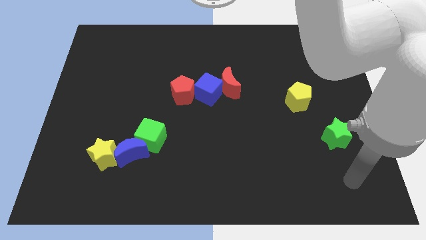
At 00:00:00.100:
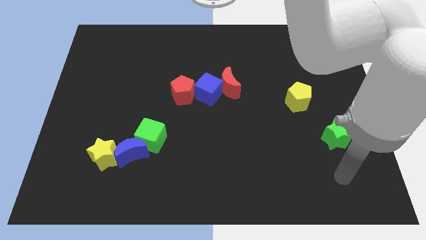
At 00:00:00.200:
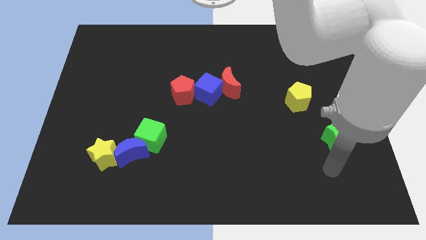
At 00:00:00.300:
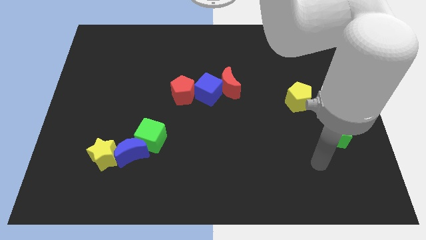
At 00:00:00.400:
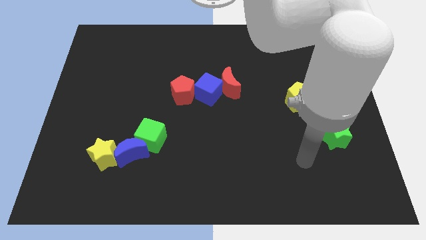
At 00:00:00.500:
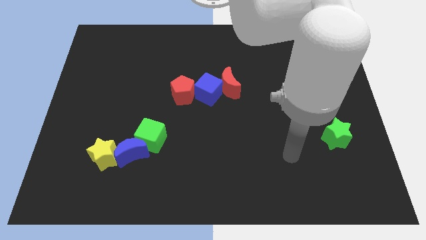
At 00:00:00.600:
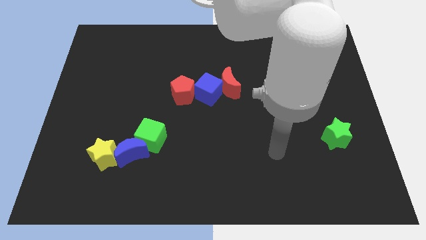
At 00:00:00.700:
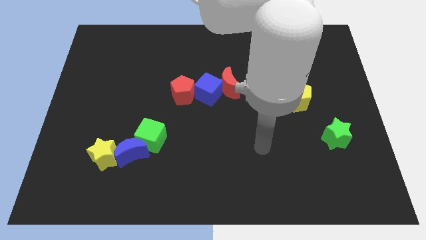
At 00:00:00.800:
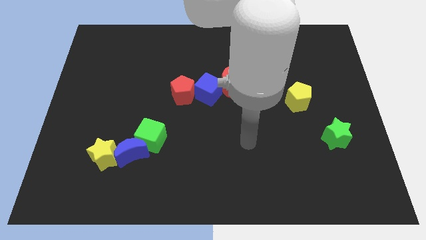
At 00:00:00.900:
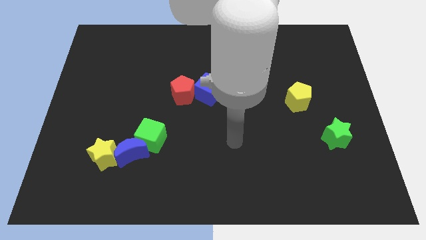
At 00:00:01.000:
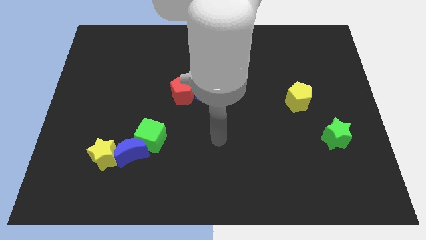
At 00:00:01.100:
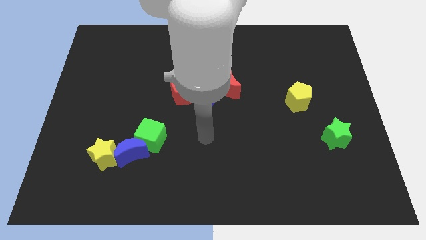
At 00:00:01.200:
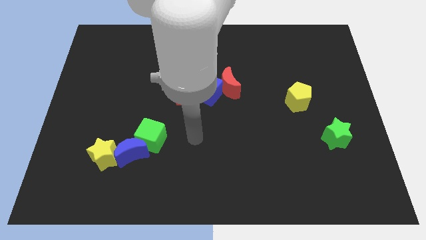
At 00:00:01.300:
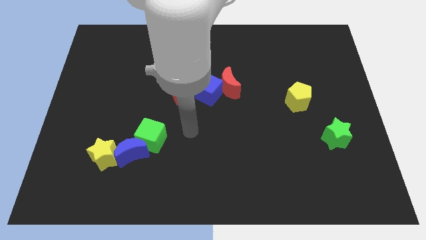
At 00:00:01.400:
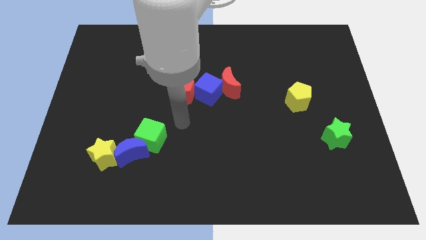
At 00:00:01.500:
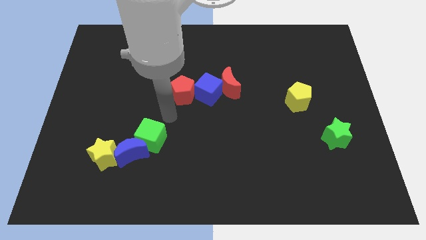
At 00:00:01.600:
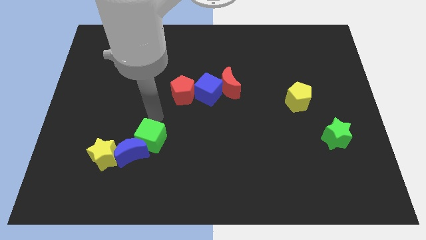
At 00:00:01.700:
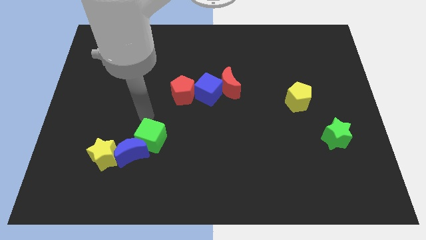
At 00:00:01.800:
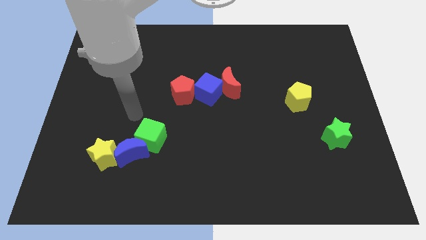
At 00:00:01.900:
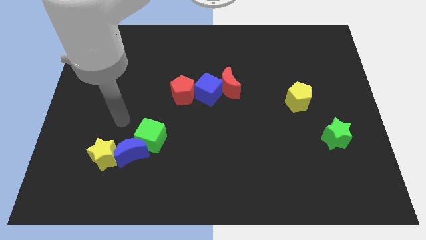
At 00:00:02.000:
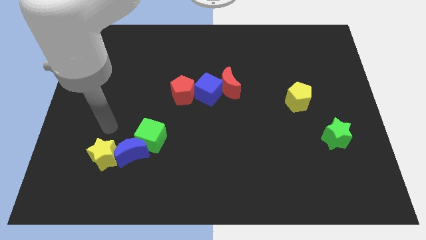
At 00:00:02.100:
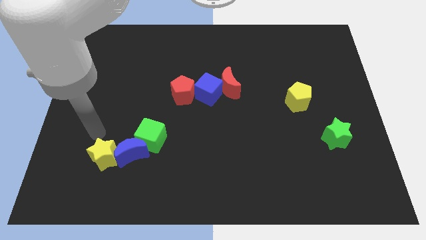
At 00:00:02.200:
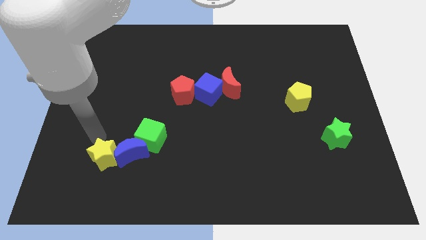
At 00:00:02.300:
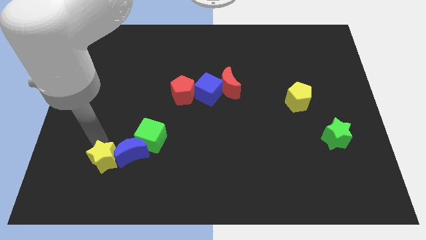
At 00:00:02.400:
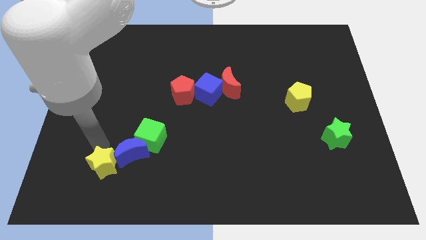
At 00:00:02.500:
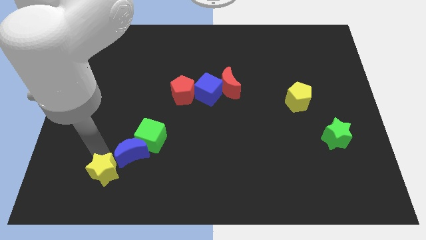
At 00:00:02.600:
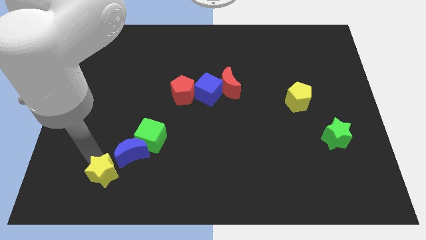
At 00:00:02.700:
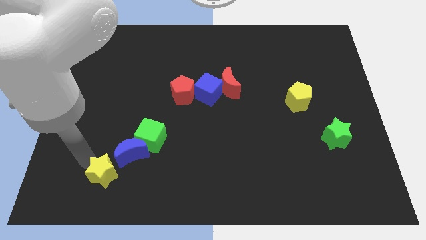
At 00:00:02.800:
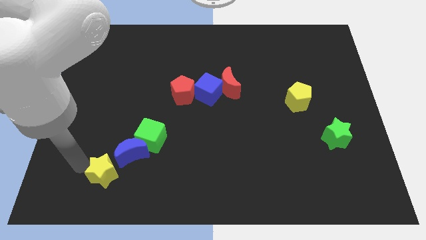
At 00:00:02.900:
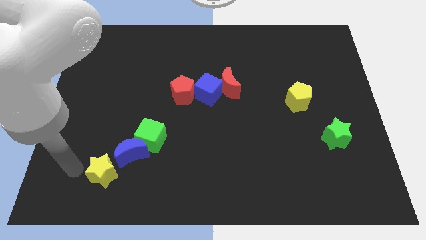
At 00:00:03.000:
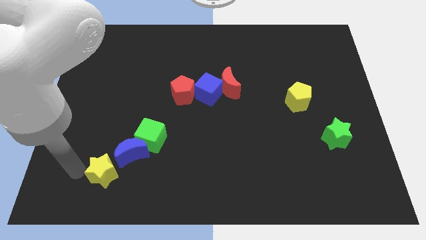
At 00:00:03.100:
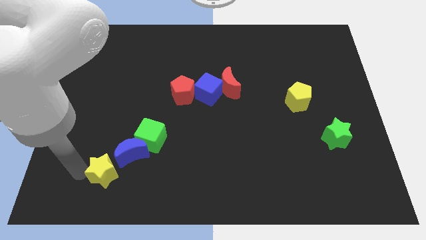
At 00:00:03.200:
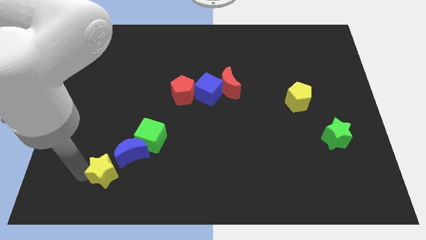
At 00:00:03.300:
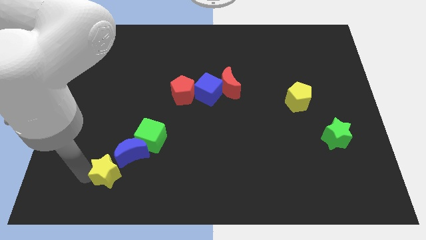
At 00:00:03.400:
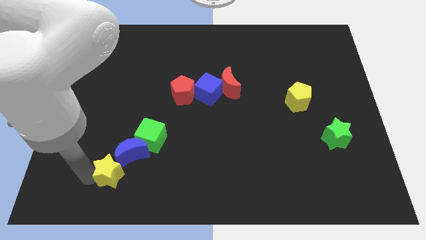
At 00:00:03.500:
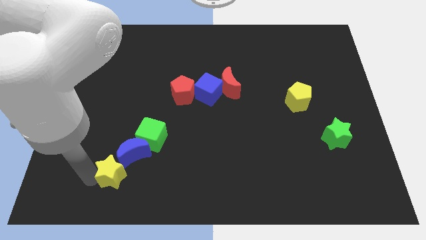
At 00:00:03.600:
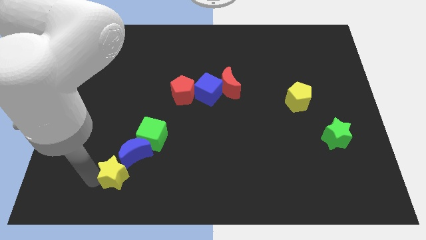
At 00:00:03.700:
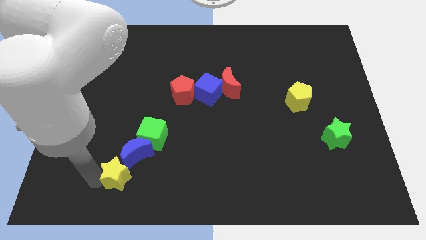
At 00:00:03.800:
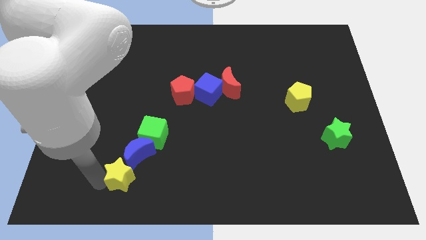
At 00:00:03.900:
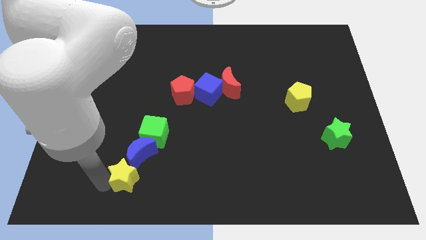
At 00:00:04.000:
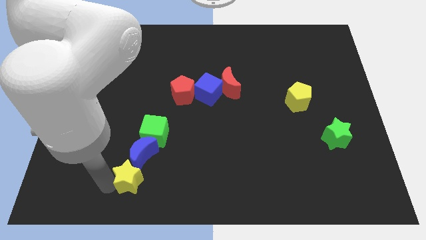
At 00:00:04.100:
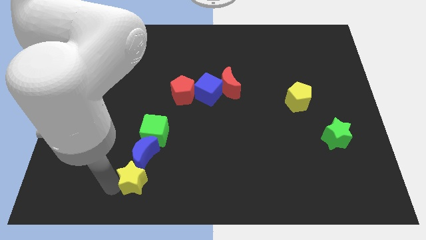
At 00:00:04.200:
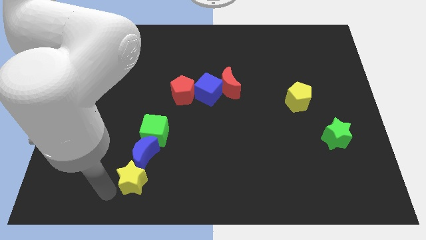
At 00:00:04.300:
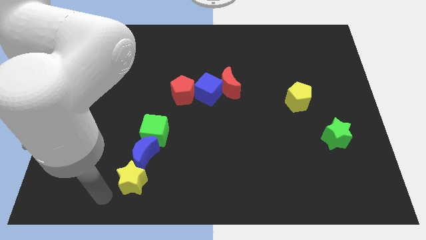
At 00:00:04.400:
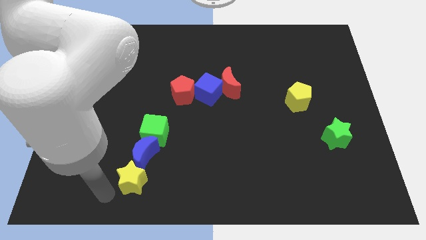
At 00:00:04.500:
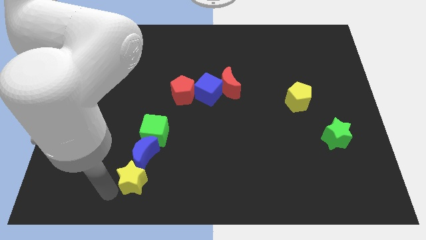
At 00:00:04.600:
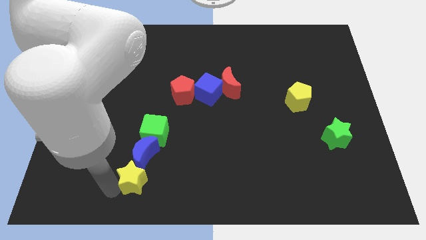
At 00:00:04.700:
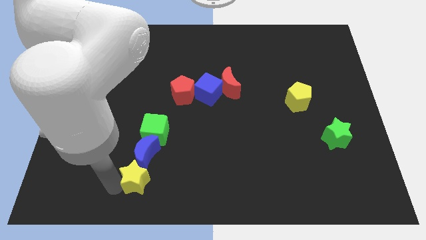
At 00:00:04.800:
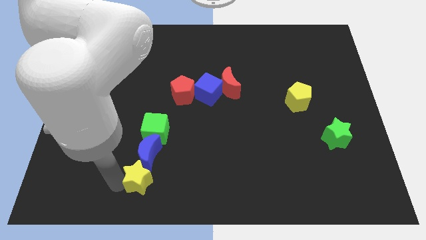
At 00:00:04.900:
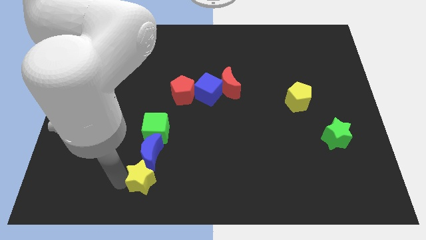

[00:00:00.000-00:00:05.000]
slide the yellow star a little to the right

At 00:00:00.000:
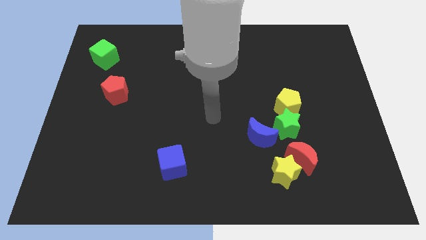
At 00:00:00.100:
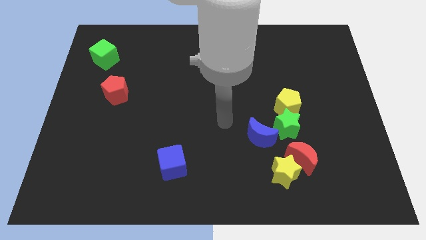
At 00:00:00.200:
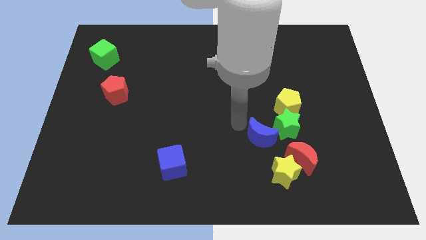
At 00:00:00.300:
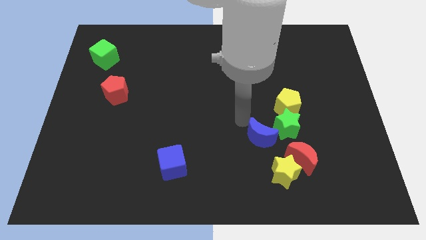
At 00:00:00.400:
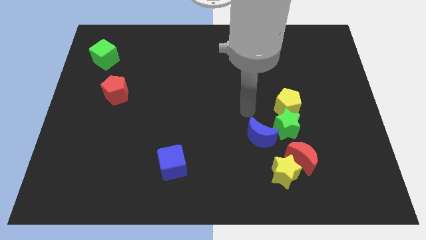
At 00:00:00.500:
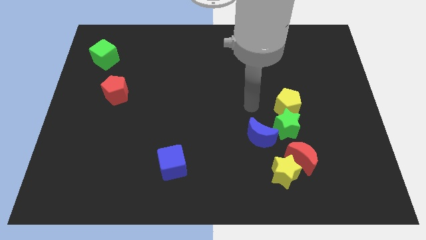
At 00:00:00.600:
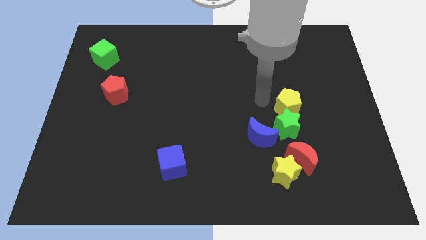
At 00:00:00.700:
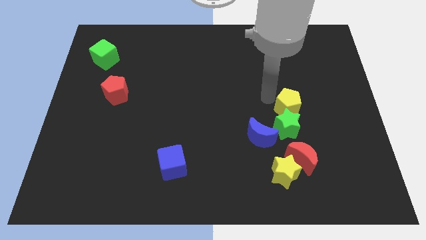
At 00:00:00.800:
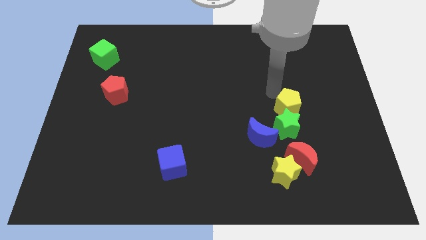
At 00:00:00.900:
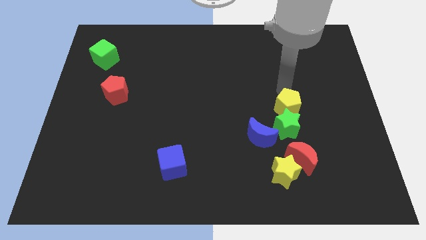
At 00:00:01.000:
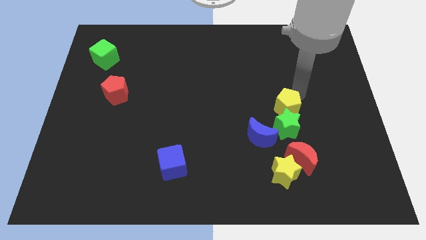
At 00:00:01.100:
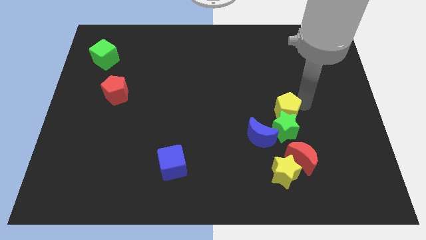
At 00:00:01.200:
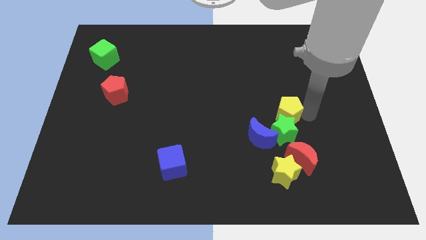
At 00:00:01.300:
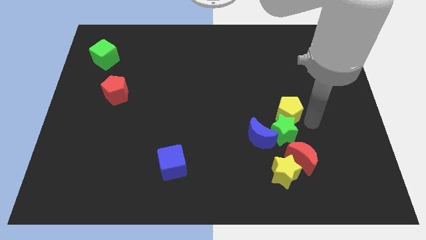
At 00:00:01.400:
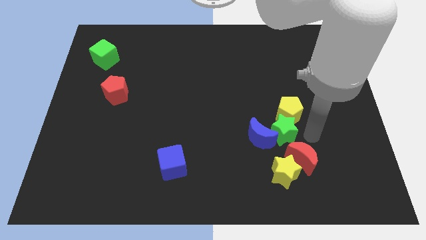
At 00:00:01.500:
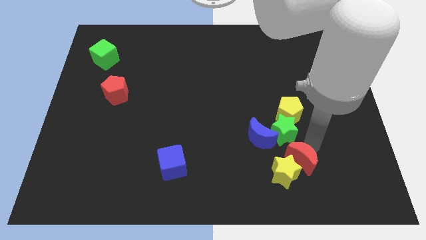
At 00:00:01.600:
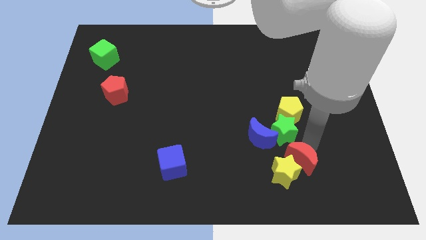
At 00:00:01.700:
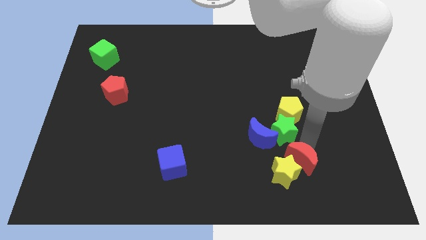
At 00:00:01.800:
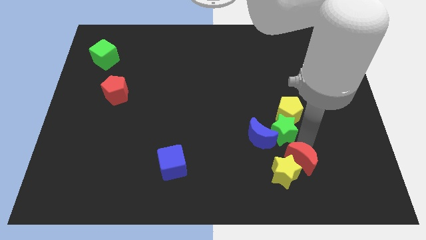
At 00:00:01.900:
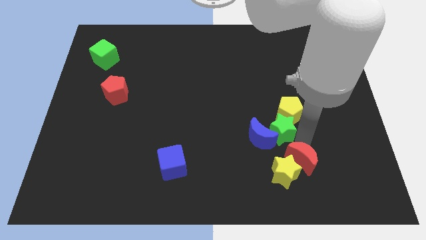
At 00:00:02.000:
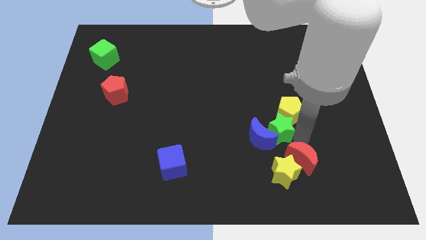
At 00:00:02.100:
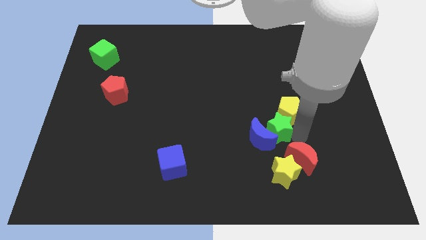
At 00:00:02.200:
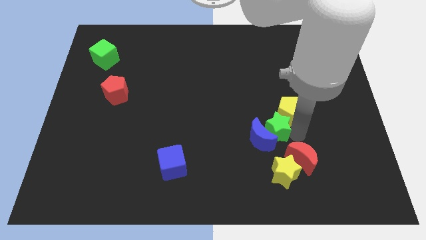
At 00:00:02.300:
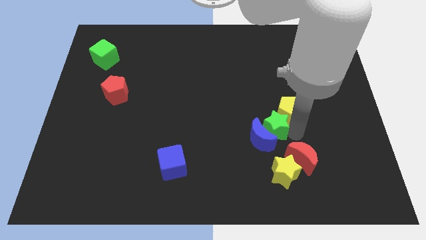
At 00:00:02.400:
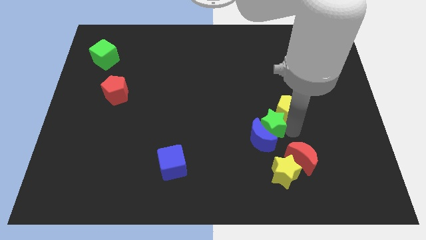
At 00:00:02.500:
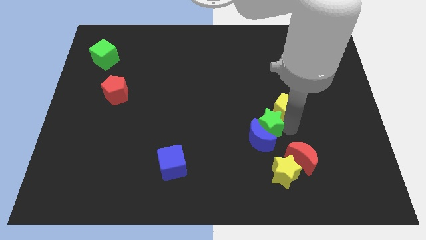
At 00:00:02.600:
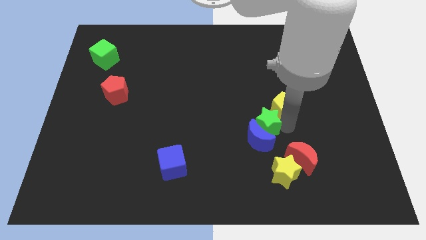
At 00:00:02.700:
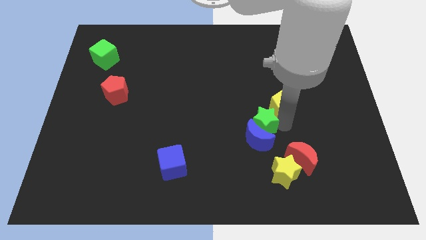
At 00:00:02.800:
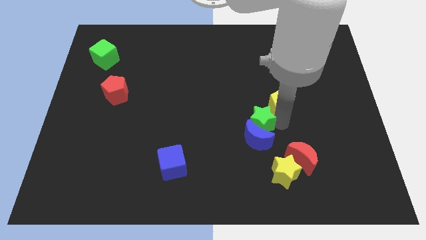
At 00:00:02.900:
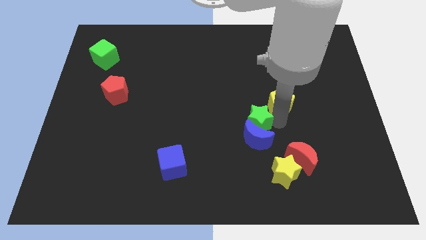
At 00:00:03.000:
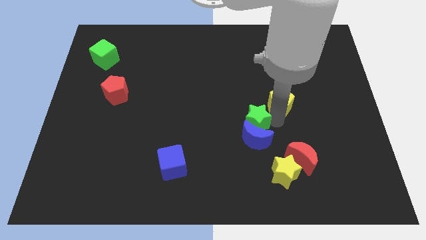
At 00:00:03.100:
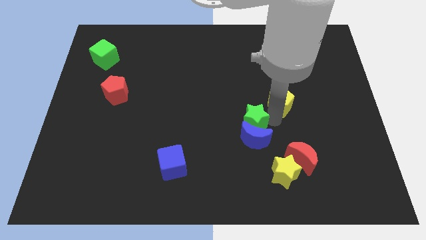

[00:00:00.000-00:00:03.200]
slightly move the green star to the left
